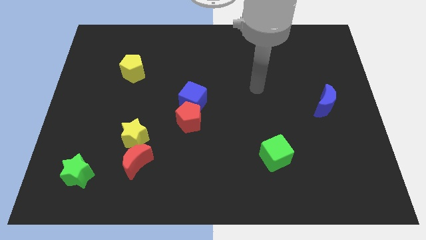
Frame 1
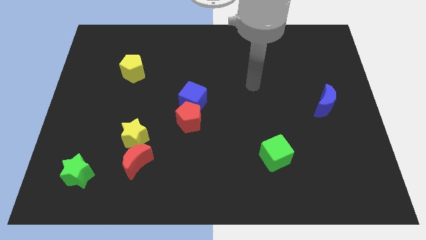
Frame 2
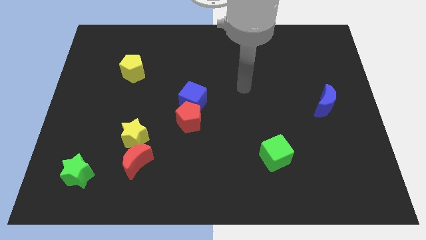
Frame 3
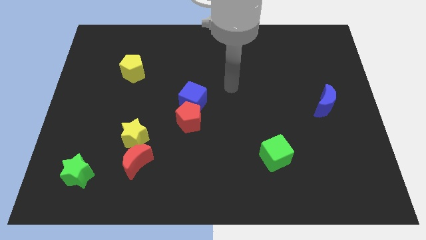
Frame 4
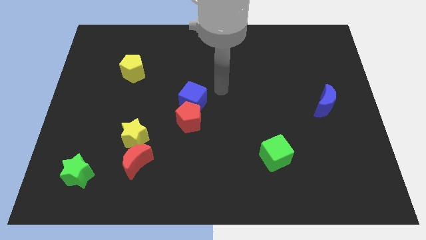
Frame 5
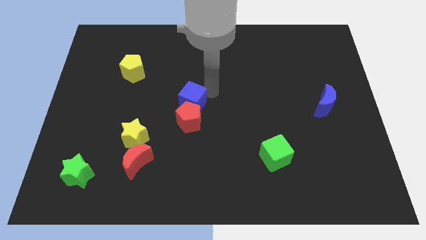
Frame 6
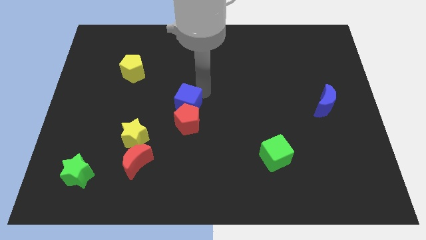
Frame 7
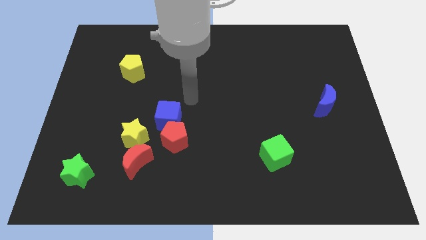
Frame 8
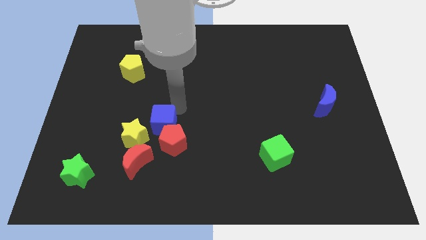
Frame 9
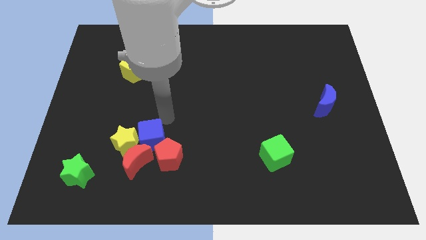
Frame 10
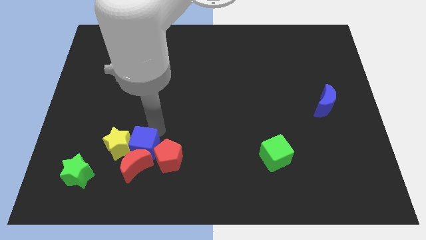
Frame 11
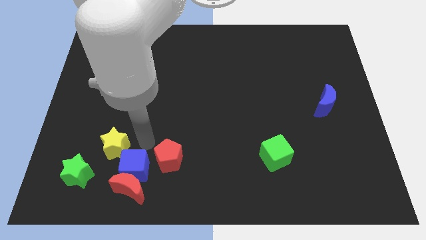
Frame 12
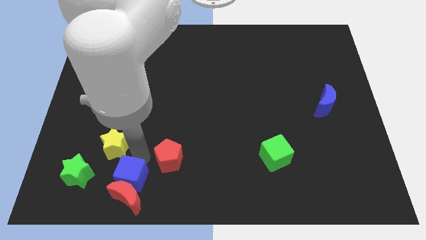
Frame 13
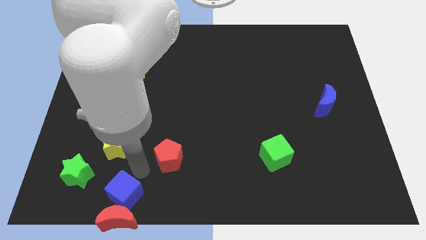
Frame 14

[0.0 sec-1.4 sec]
separate the red pentagon from the blue cube

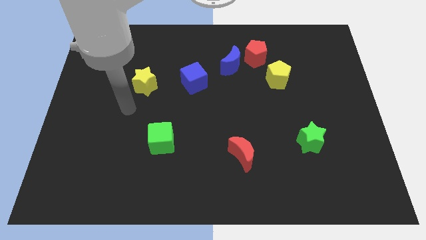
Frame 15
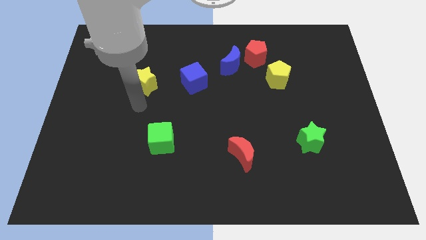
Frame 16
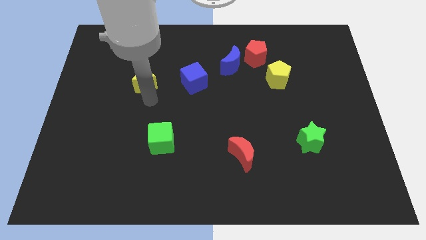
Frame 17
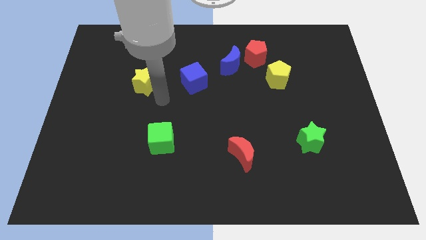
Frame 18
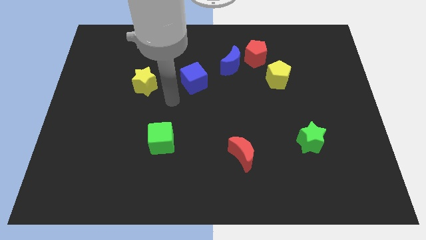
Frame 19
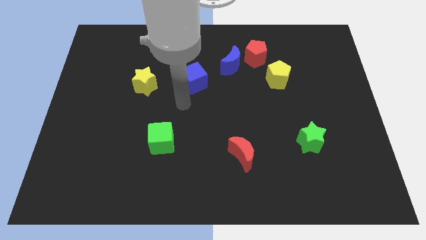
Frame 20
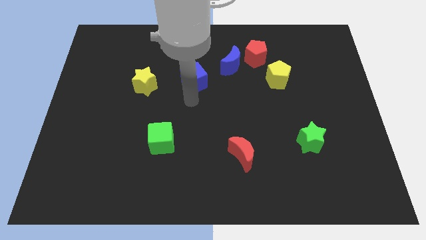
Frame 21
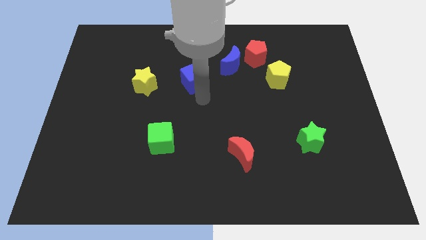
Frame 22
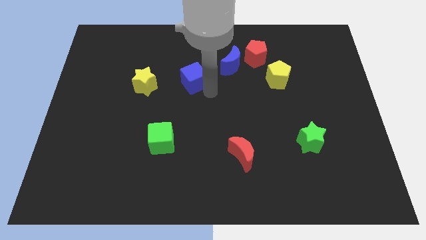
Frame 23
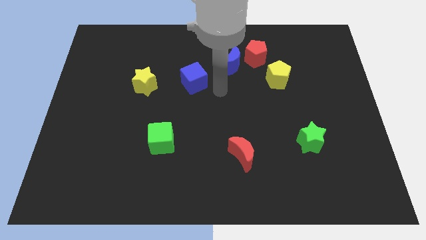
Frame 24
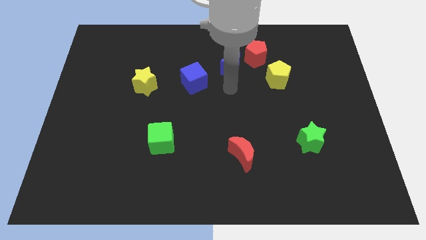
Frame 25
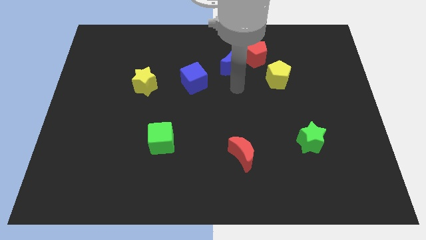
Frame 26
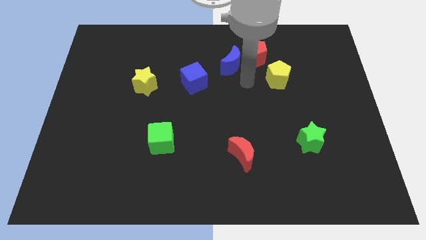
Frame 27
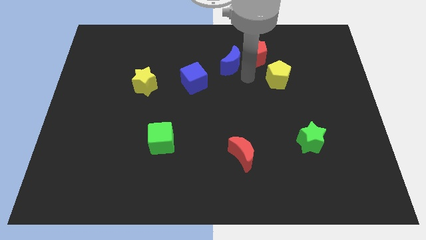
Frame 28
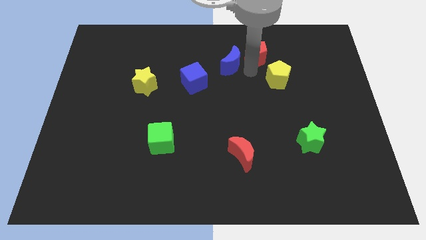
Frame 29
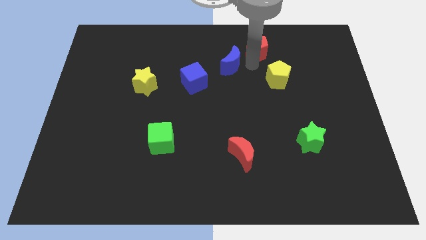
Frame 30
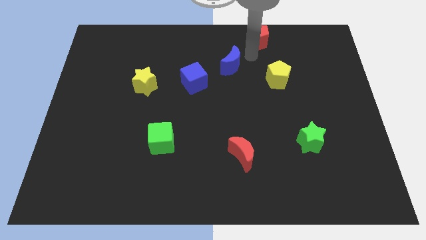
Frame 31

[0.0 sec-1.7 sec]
pull the blue moon apart from the red pentagon

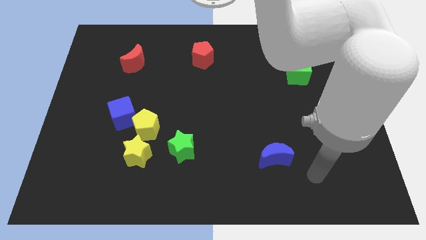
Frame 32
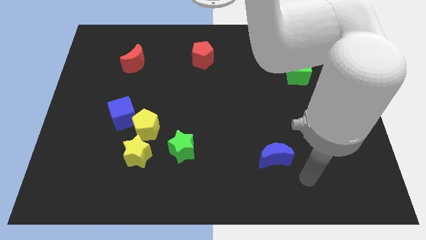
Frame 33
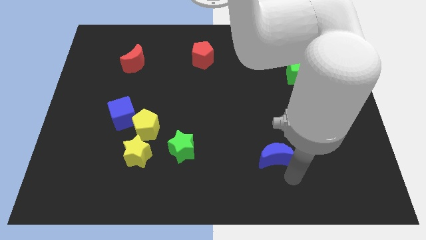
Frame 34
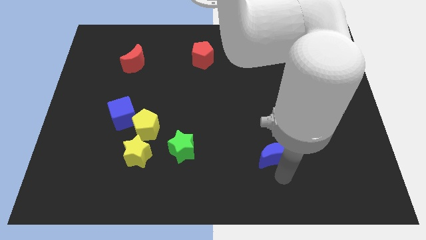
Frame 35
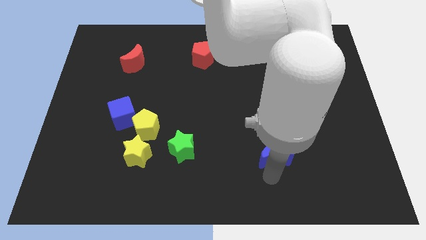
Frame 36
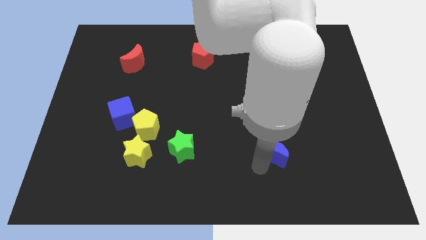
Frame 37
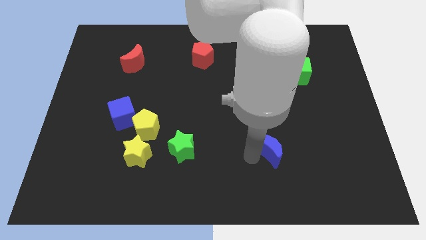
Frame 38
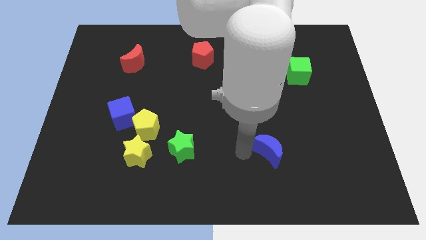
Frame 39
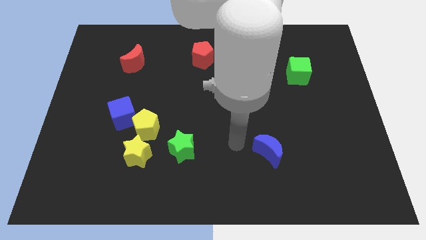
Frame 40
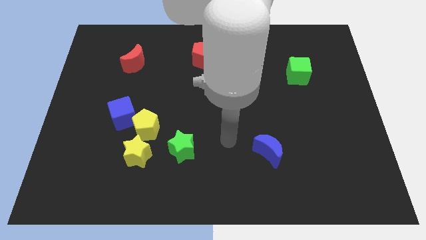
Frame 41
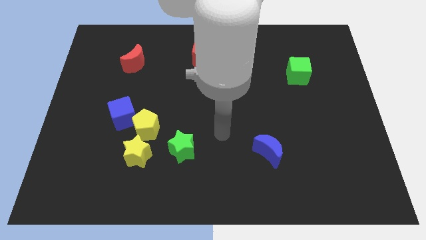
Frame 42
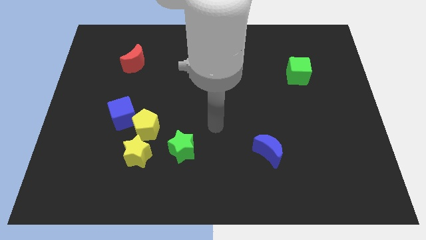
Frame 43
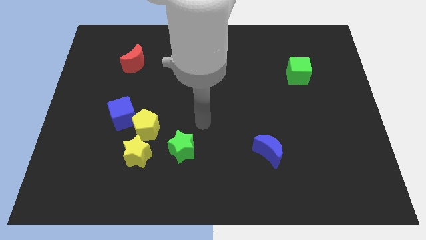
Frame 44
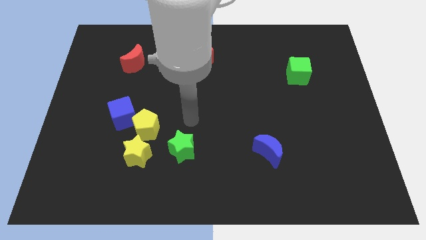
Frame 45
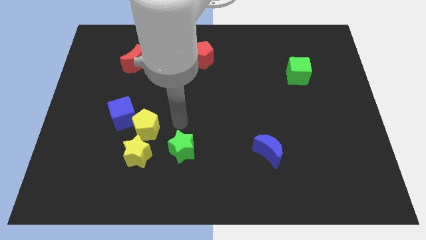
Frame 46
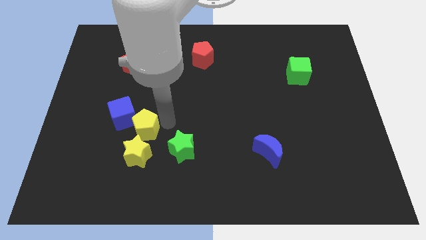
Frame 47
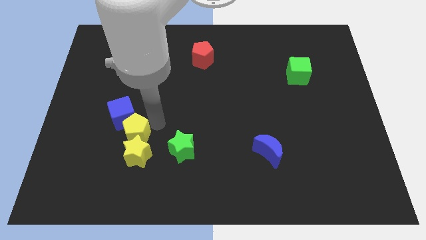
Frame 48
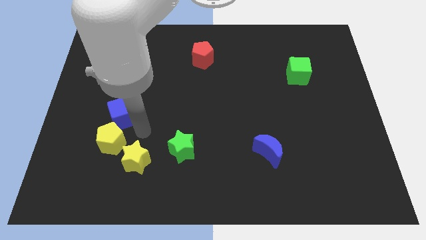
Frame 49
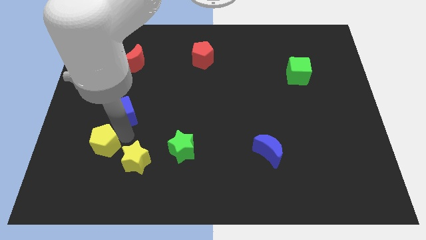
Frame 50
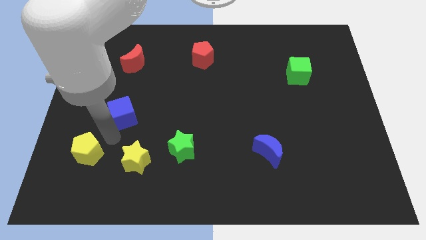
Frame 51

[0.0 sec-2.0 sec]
separate the blue cube from the yellow pentagon

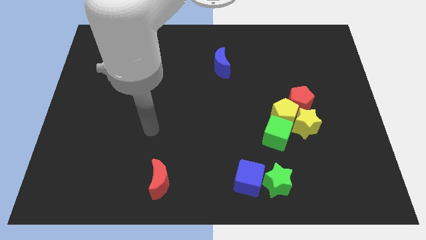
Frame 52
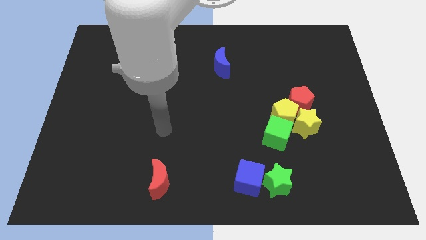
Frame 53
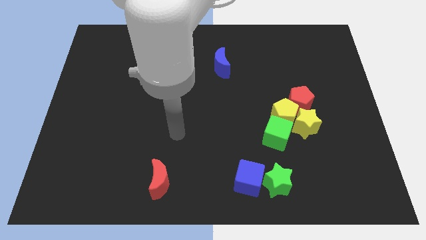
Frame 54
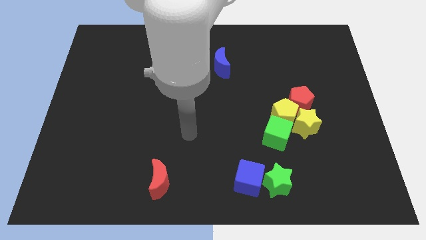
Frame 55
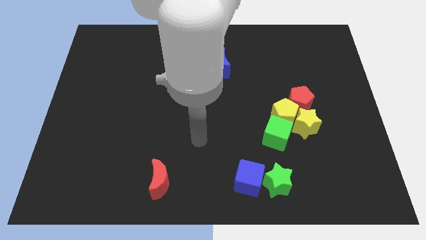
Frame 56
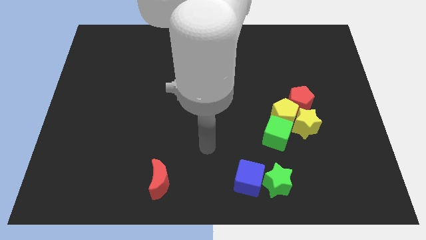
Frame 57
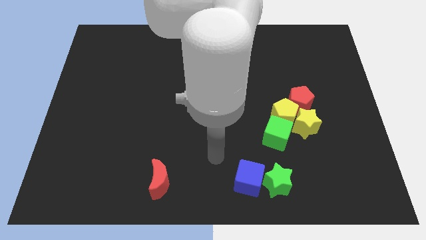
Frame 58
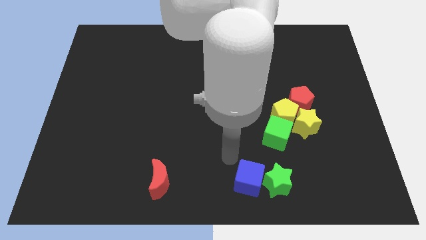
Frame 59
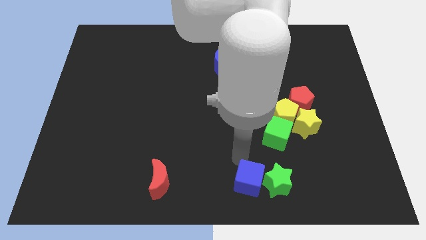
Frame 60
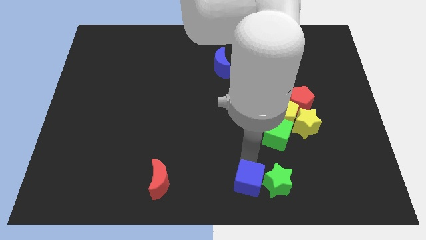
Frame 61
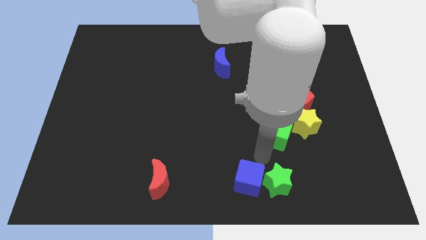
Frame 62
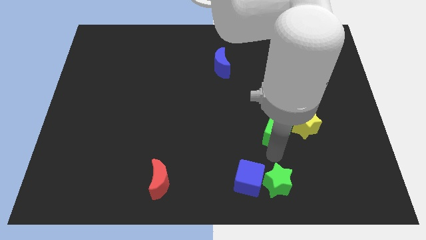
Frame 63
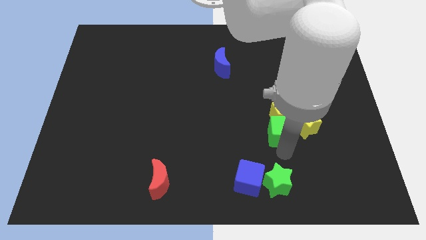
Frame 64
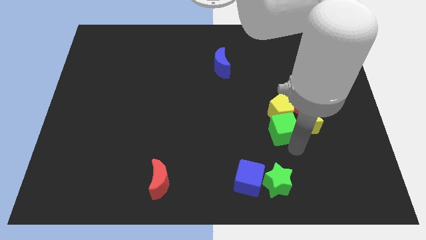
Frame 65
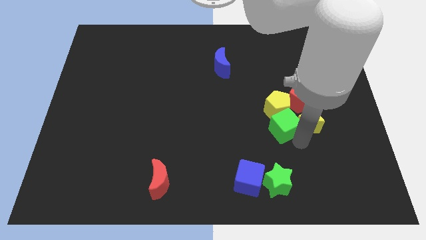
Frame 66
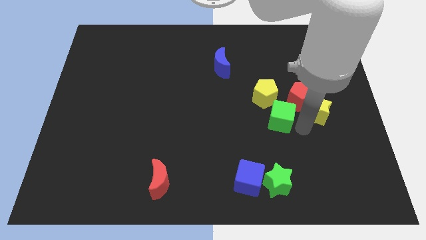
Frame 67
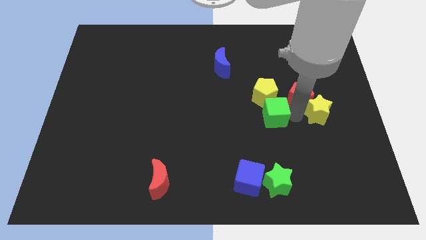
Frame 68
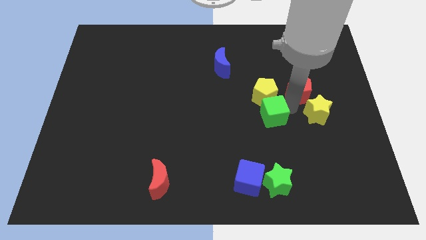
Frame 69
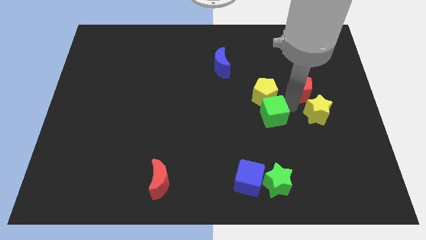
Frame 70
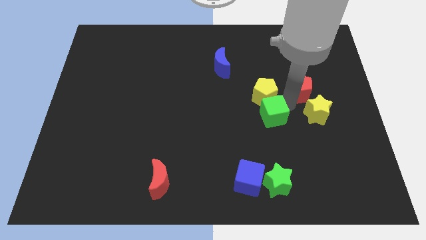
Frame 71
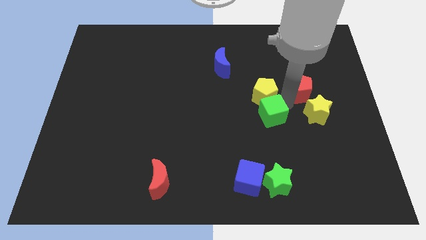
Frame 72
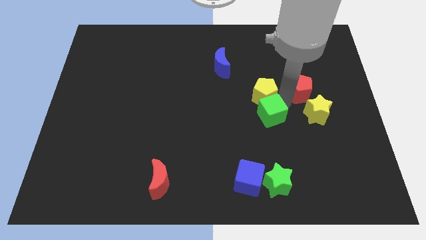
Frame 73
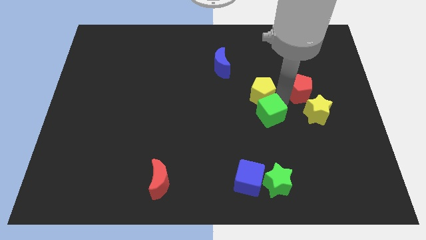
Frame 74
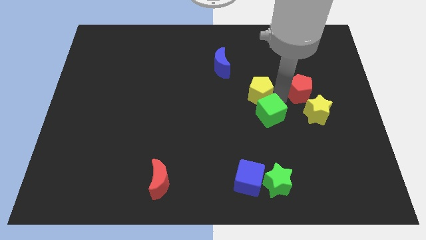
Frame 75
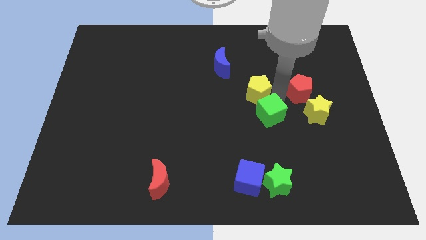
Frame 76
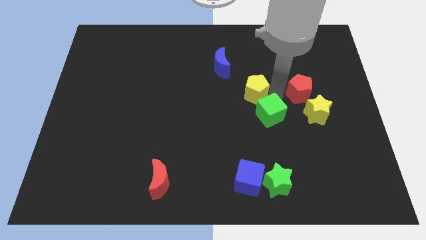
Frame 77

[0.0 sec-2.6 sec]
move the yellow pentagon away from the yellow star, green cube, and red pentagon

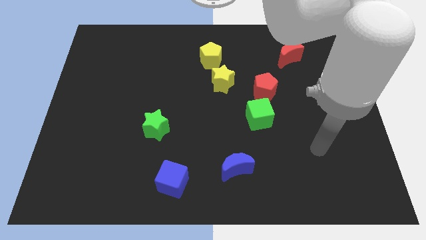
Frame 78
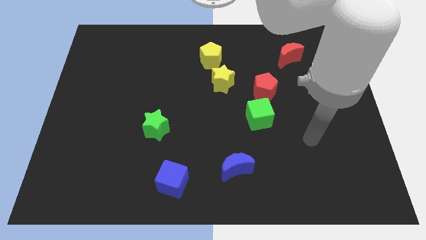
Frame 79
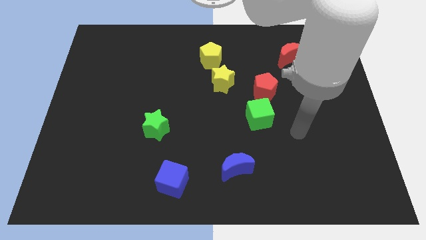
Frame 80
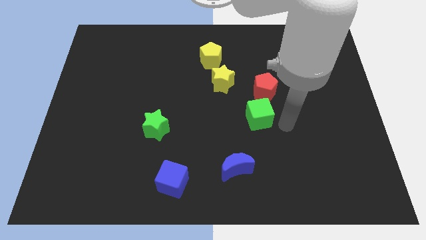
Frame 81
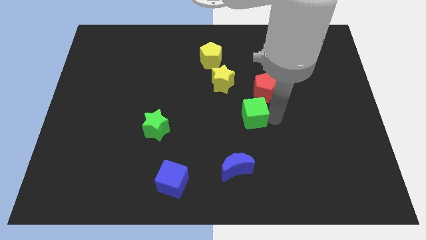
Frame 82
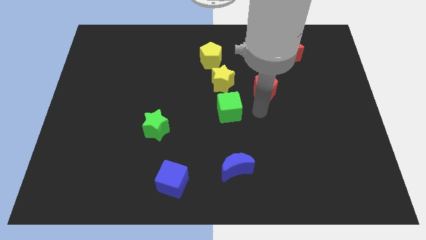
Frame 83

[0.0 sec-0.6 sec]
separate the red pentagon from the green cube

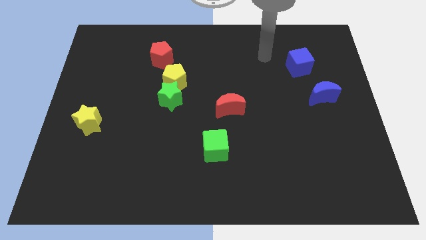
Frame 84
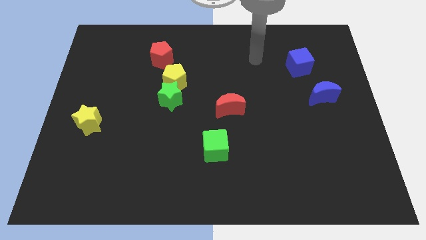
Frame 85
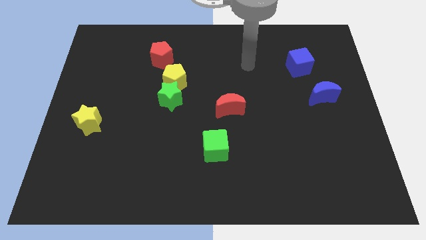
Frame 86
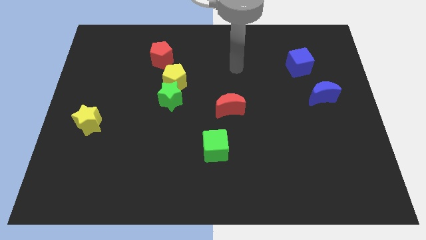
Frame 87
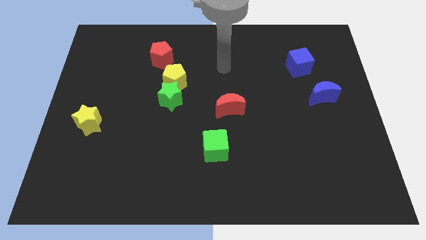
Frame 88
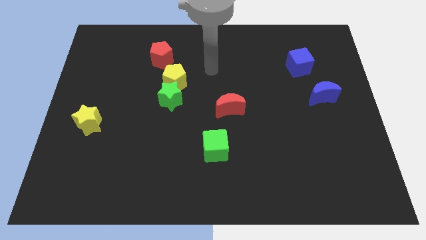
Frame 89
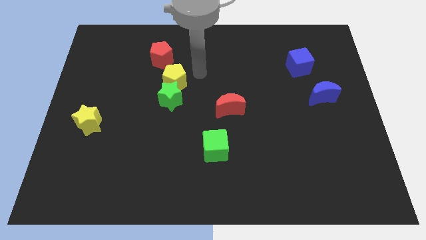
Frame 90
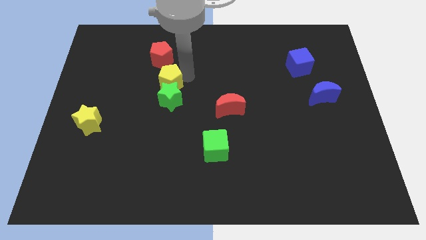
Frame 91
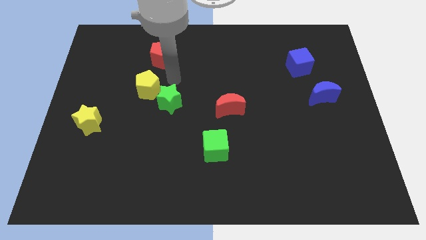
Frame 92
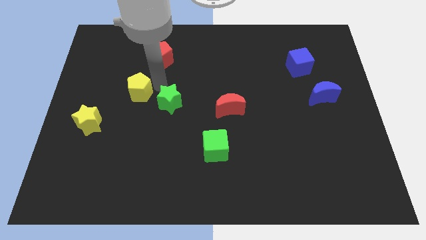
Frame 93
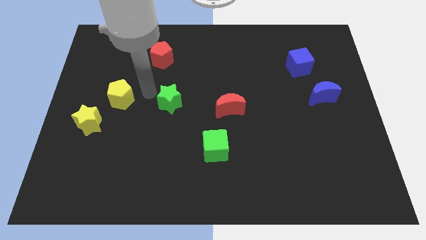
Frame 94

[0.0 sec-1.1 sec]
pull the green star apart from the yellow pentagon
